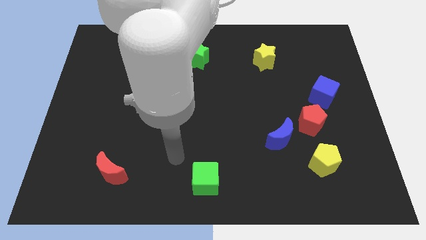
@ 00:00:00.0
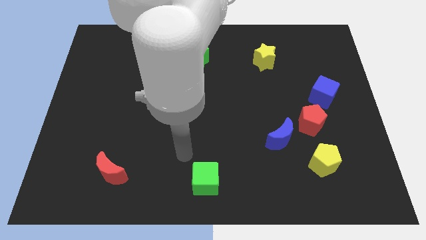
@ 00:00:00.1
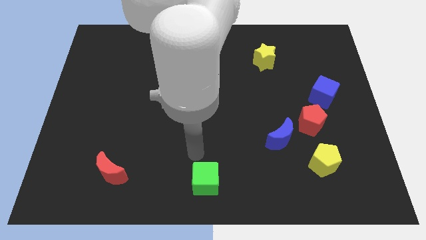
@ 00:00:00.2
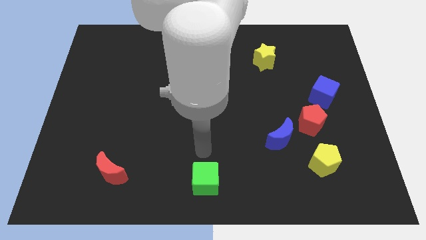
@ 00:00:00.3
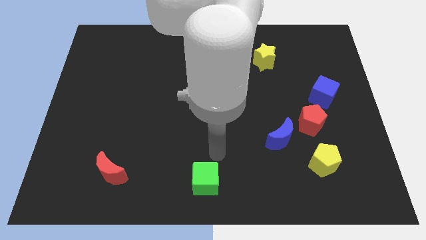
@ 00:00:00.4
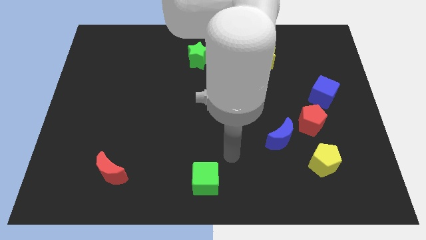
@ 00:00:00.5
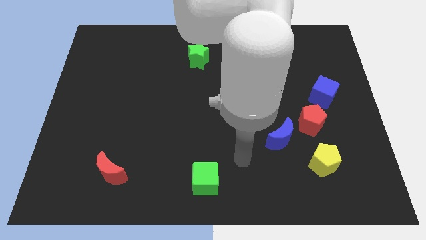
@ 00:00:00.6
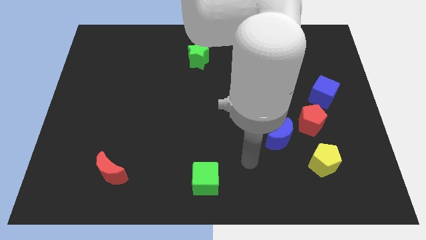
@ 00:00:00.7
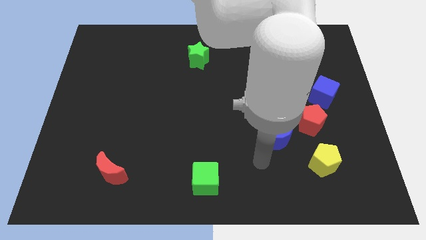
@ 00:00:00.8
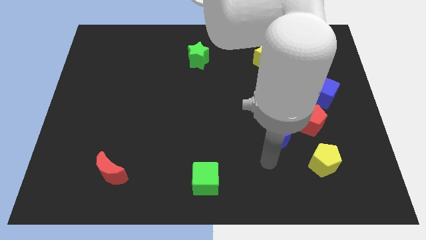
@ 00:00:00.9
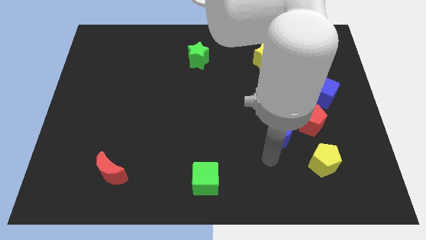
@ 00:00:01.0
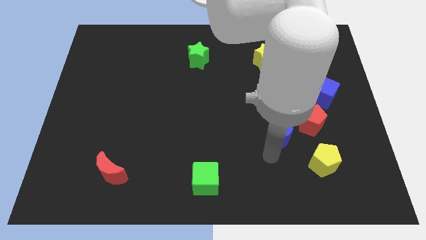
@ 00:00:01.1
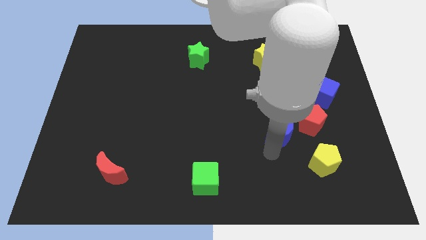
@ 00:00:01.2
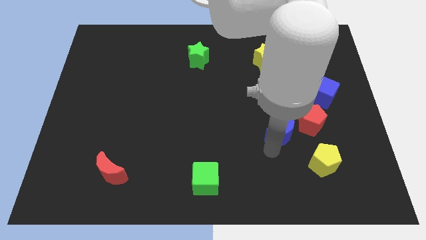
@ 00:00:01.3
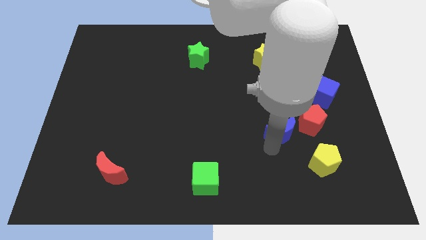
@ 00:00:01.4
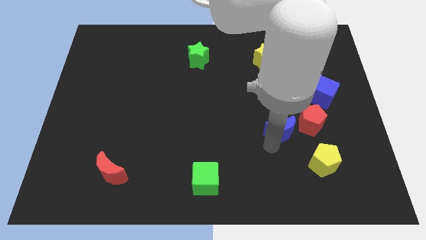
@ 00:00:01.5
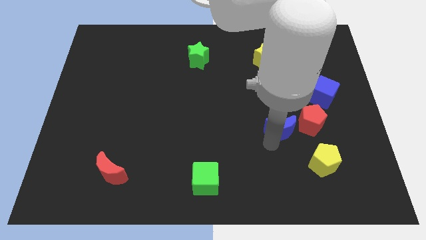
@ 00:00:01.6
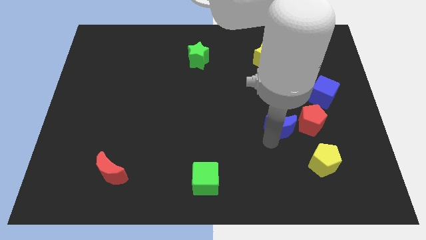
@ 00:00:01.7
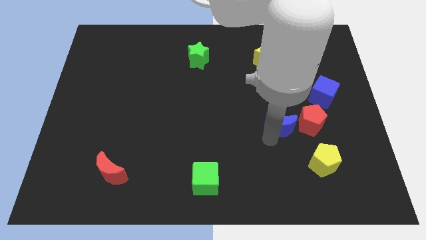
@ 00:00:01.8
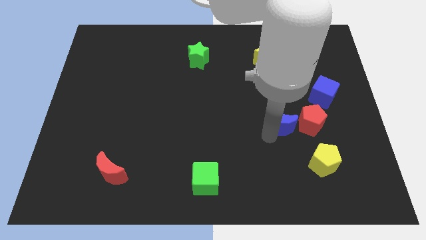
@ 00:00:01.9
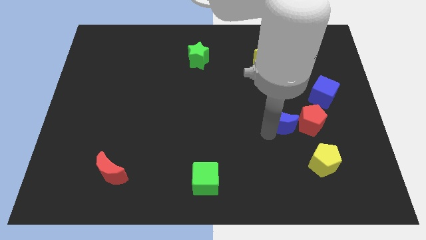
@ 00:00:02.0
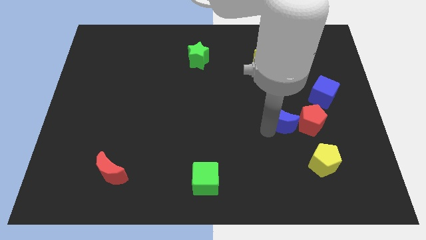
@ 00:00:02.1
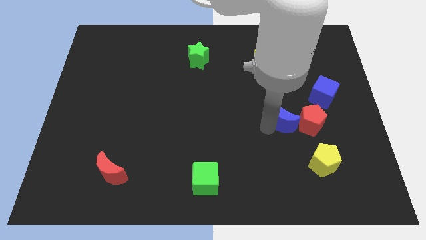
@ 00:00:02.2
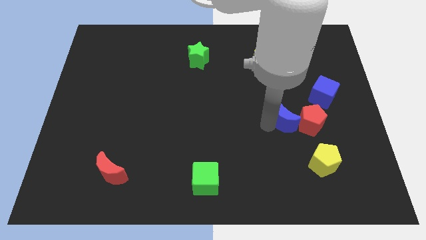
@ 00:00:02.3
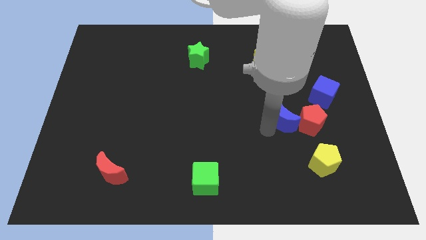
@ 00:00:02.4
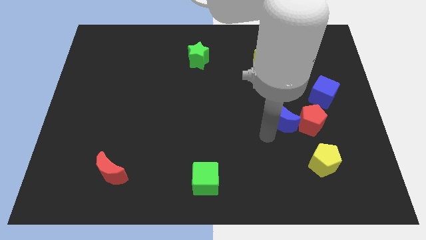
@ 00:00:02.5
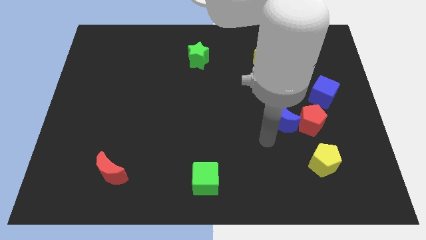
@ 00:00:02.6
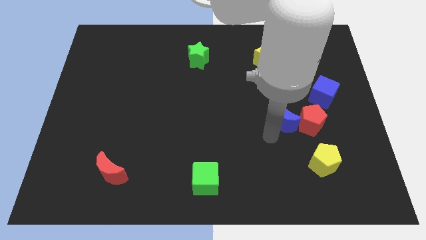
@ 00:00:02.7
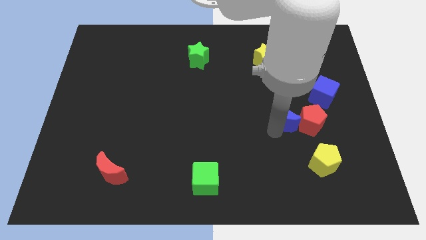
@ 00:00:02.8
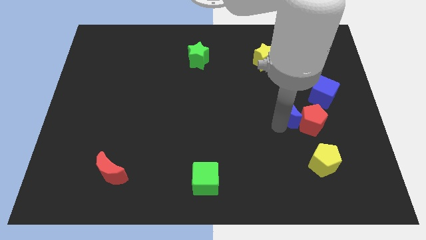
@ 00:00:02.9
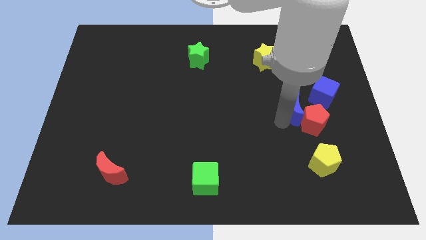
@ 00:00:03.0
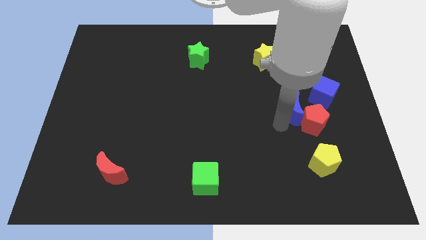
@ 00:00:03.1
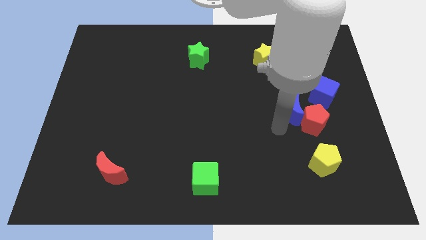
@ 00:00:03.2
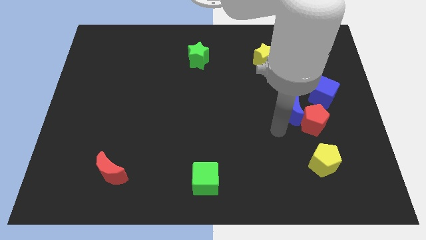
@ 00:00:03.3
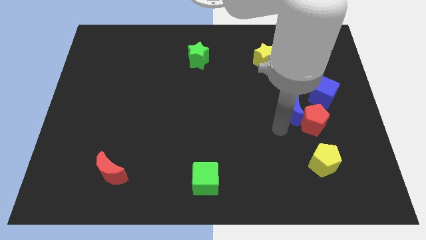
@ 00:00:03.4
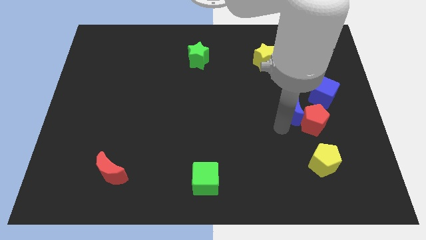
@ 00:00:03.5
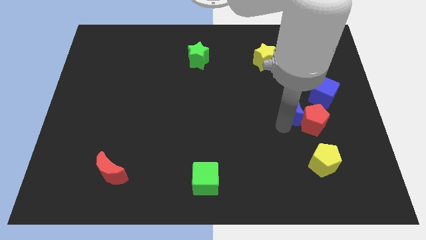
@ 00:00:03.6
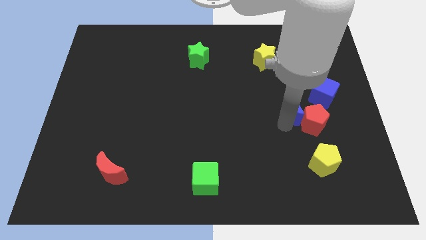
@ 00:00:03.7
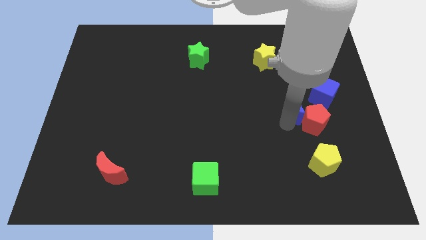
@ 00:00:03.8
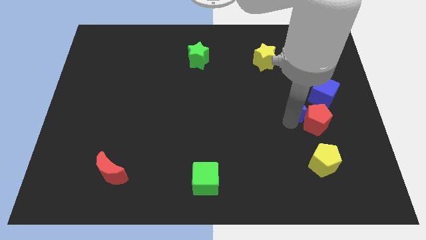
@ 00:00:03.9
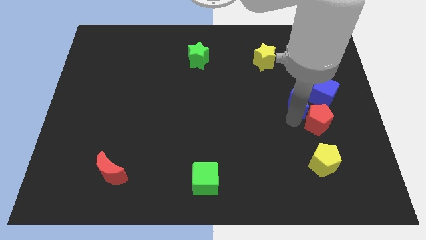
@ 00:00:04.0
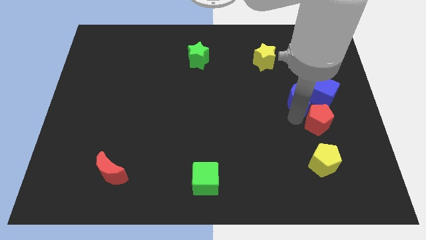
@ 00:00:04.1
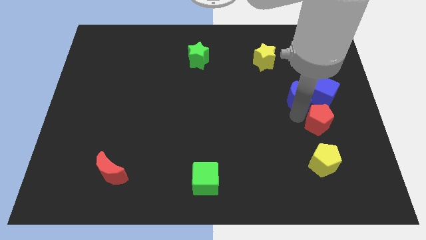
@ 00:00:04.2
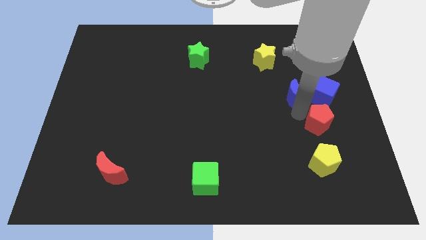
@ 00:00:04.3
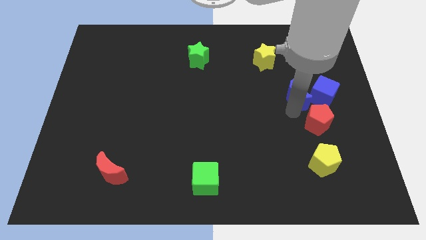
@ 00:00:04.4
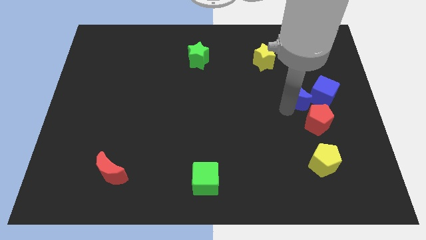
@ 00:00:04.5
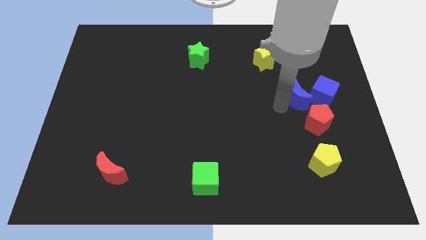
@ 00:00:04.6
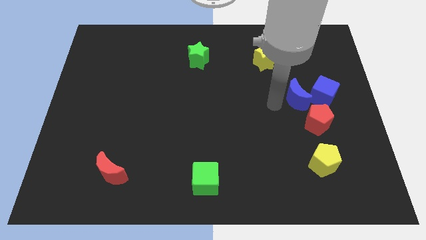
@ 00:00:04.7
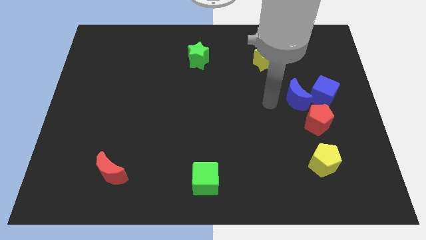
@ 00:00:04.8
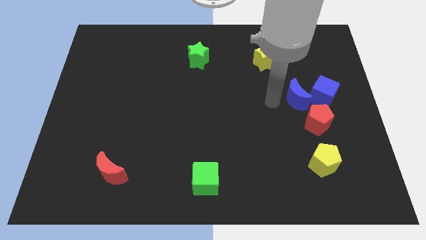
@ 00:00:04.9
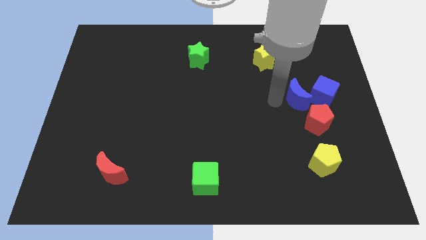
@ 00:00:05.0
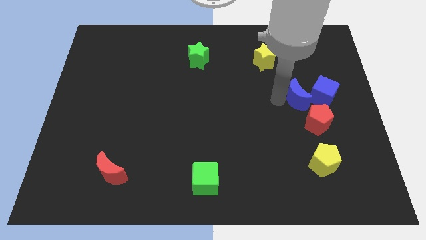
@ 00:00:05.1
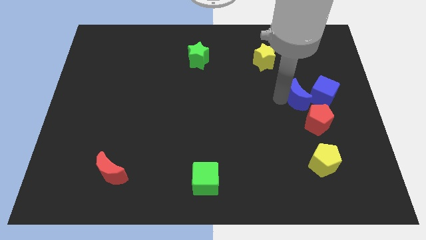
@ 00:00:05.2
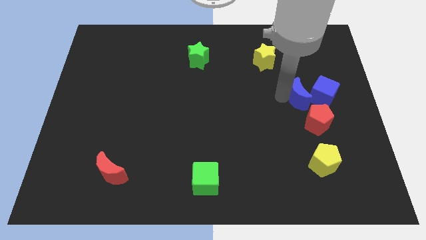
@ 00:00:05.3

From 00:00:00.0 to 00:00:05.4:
move the blue moon next to the blue cube

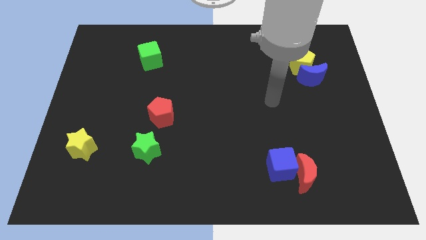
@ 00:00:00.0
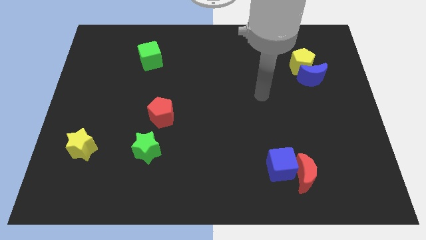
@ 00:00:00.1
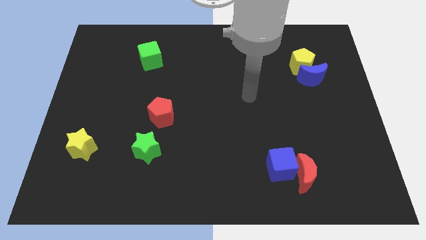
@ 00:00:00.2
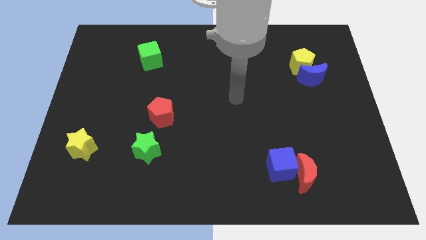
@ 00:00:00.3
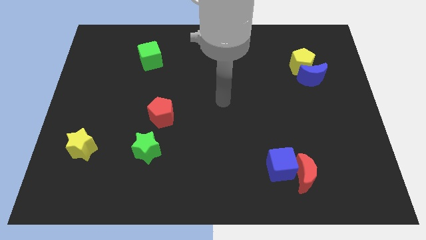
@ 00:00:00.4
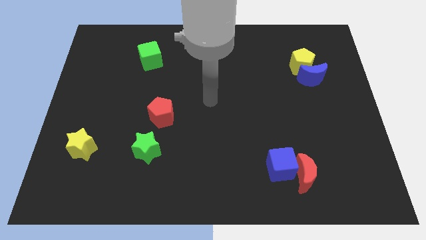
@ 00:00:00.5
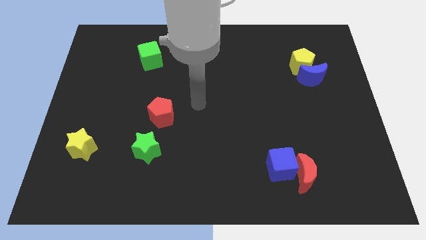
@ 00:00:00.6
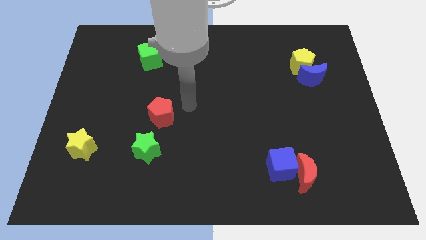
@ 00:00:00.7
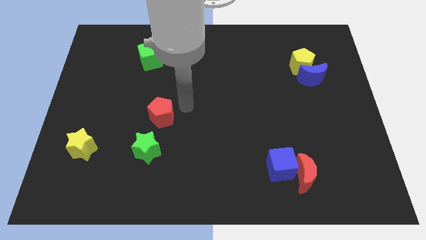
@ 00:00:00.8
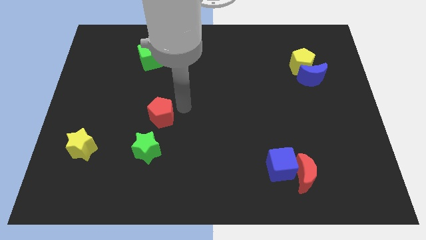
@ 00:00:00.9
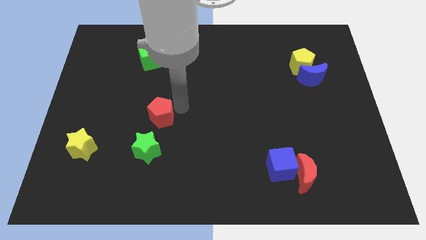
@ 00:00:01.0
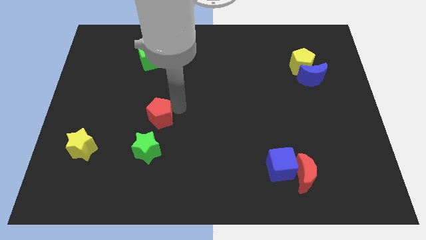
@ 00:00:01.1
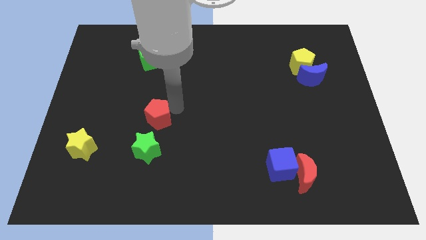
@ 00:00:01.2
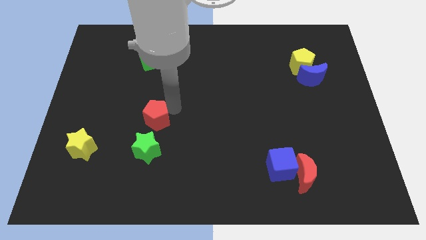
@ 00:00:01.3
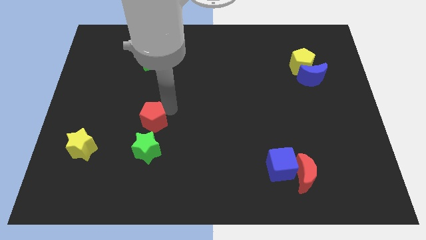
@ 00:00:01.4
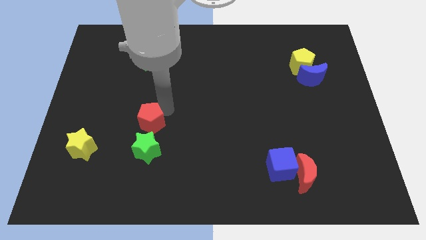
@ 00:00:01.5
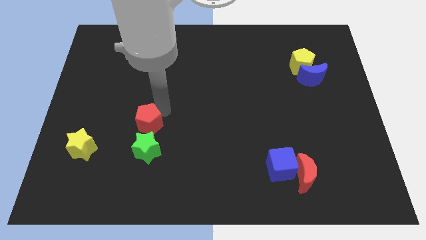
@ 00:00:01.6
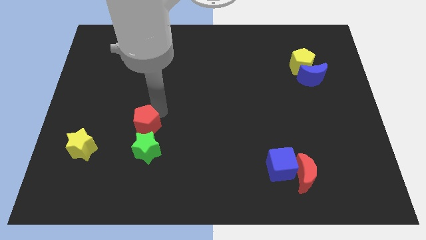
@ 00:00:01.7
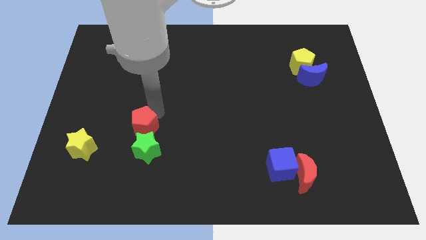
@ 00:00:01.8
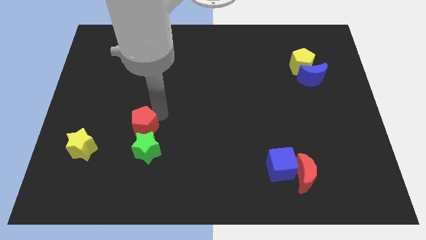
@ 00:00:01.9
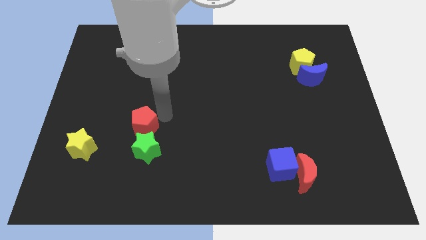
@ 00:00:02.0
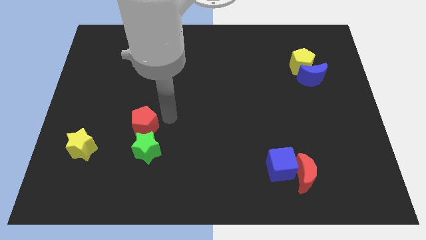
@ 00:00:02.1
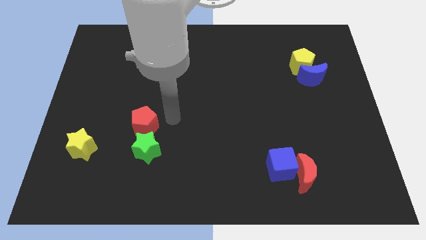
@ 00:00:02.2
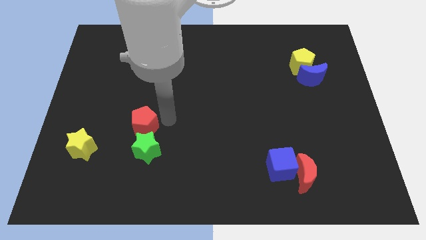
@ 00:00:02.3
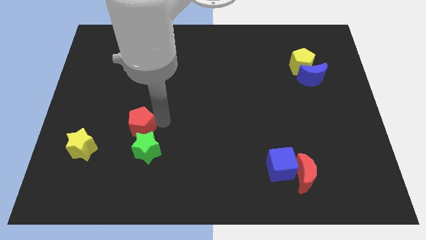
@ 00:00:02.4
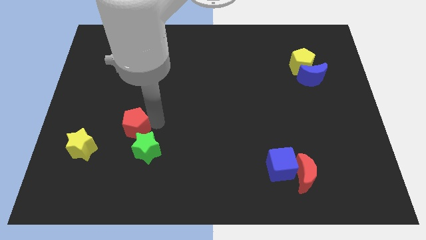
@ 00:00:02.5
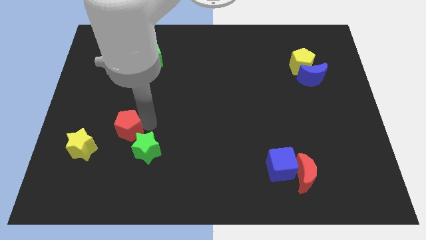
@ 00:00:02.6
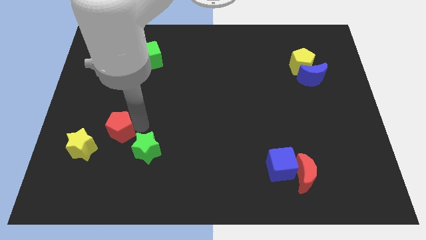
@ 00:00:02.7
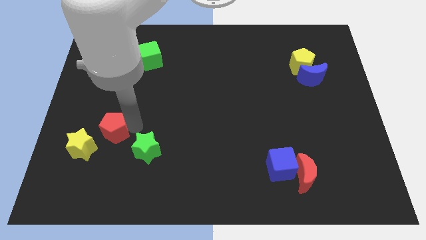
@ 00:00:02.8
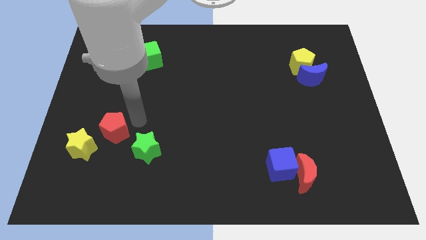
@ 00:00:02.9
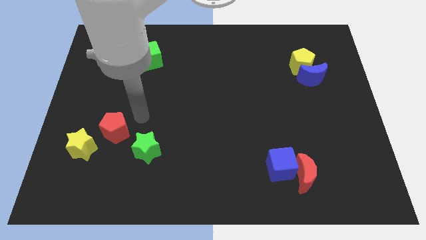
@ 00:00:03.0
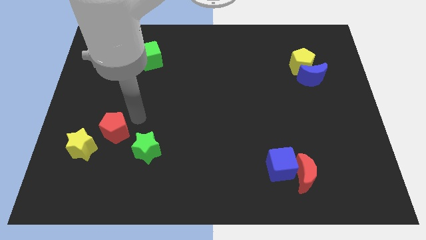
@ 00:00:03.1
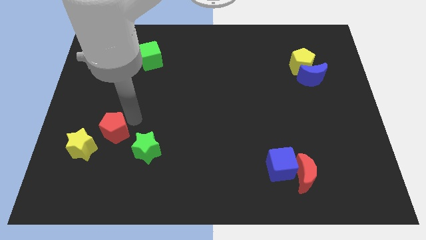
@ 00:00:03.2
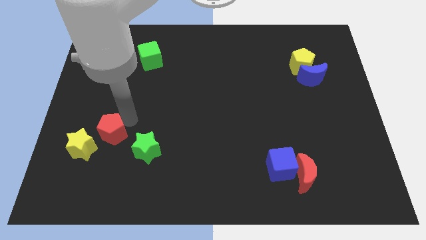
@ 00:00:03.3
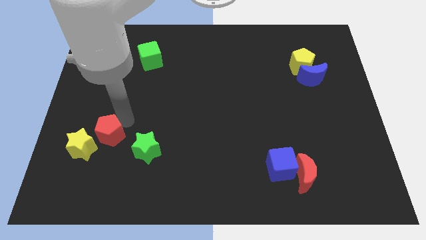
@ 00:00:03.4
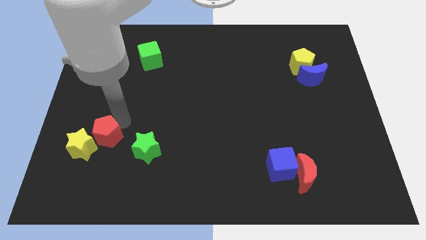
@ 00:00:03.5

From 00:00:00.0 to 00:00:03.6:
slide the red pentagon close to the yellow star
